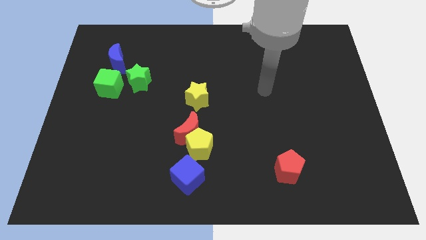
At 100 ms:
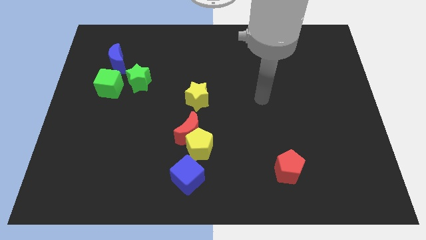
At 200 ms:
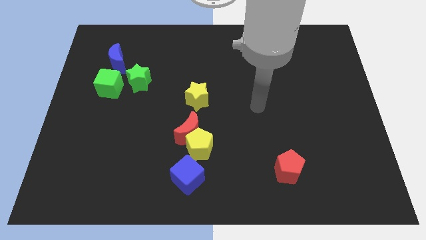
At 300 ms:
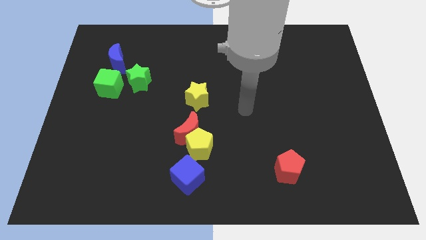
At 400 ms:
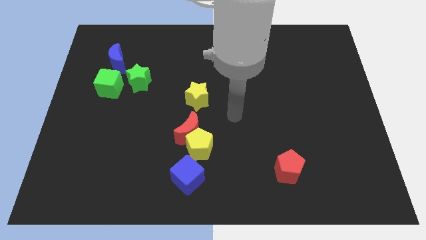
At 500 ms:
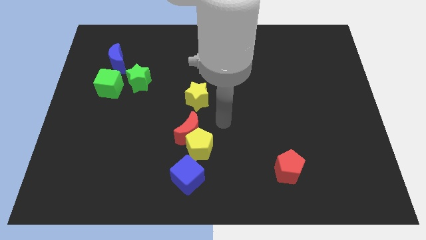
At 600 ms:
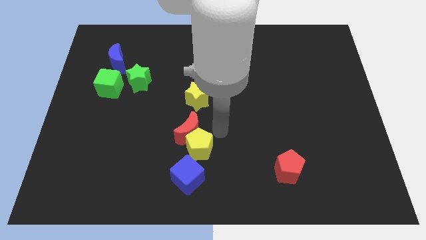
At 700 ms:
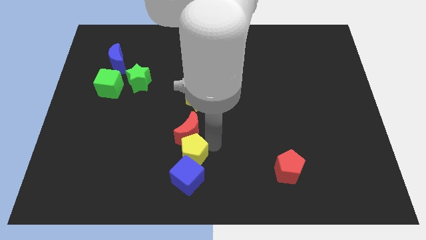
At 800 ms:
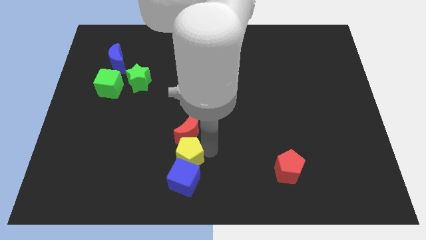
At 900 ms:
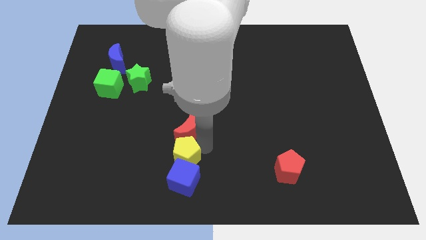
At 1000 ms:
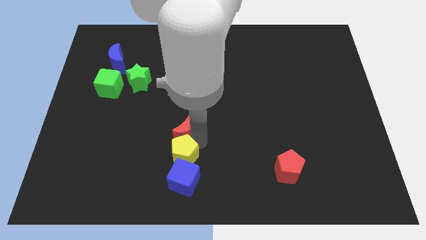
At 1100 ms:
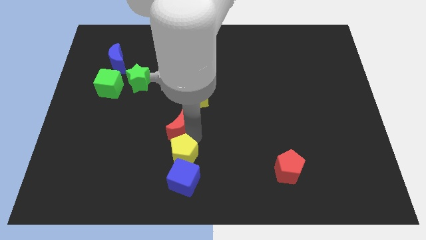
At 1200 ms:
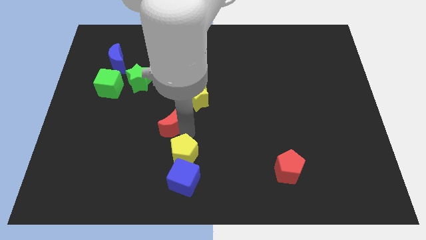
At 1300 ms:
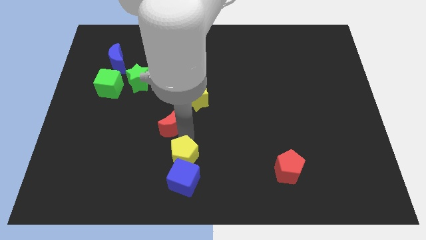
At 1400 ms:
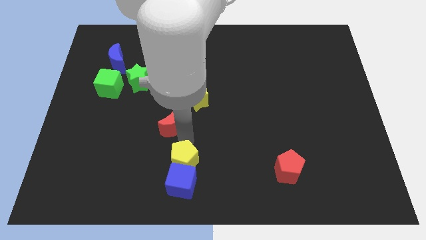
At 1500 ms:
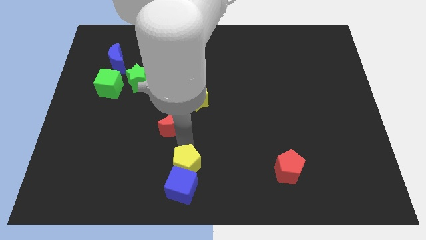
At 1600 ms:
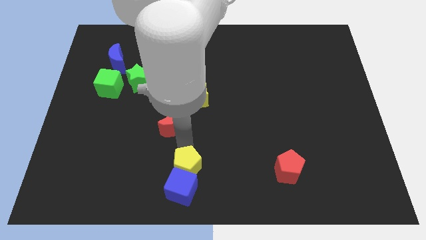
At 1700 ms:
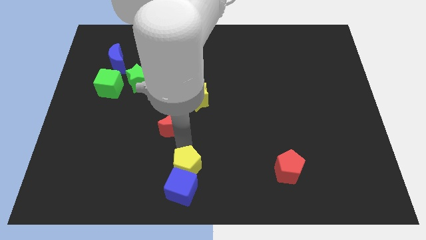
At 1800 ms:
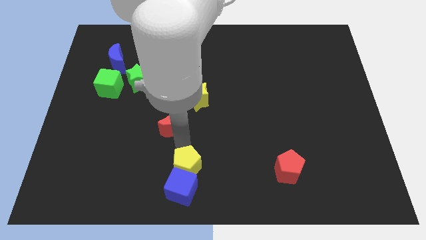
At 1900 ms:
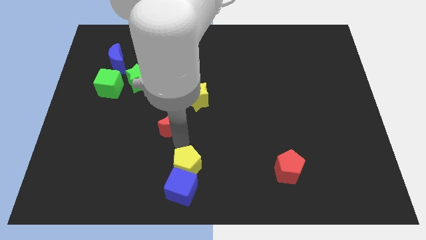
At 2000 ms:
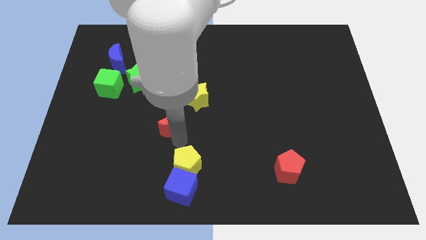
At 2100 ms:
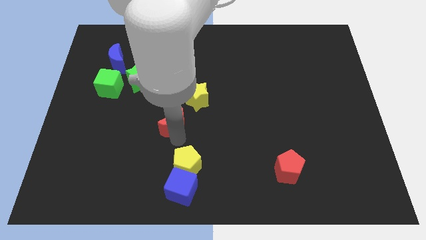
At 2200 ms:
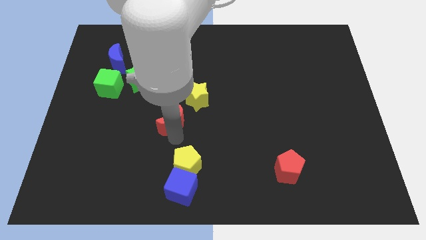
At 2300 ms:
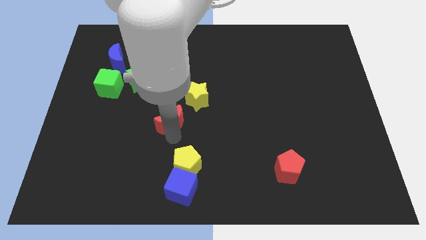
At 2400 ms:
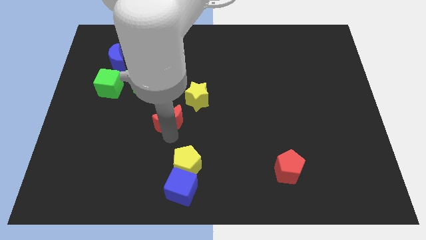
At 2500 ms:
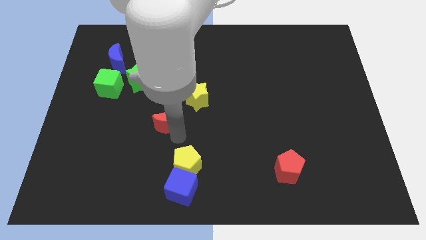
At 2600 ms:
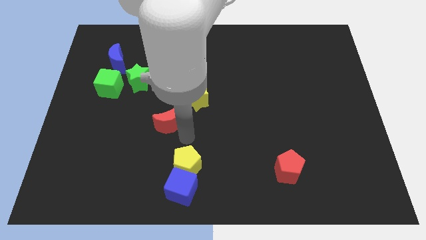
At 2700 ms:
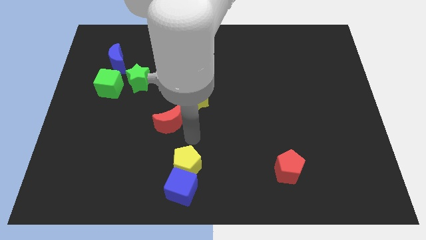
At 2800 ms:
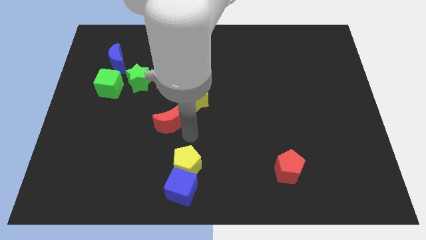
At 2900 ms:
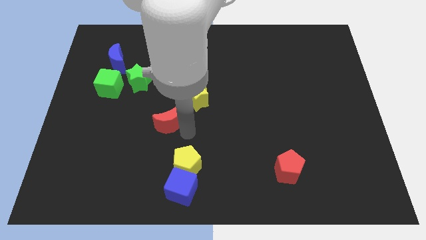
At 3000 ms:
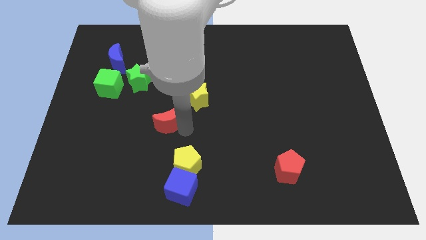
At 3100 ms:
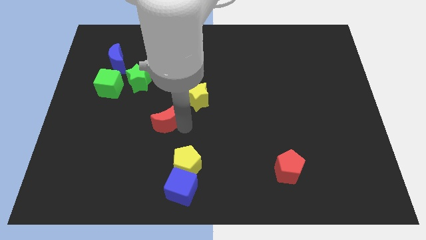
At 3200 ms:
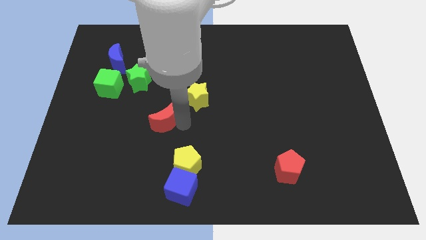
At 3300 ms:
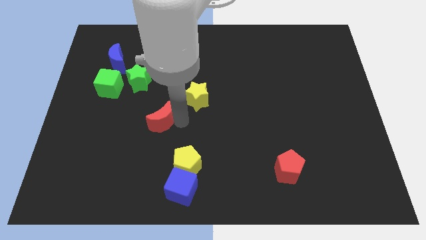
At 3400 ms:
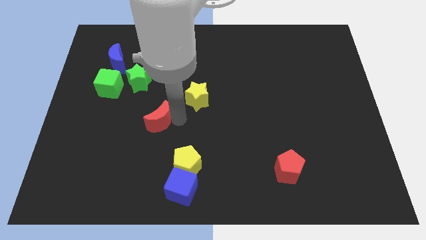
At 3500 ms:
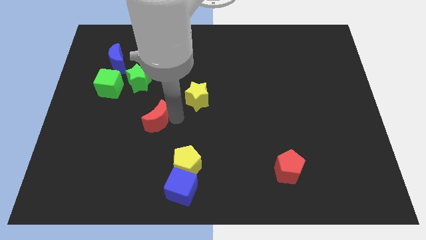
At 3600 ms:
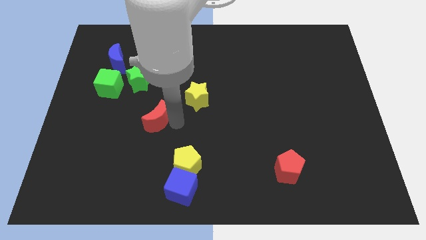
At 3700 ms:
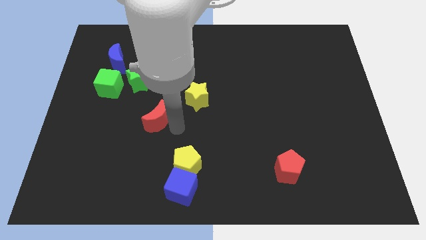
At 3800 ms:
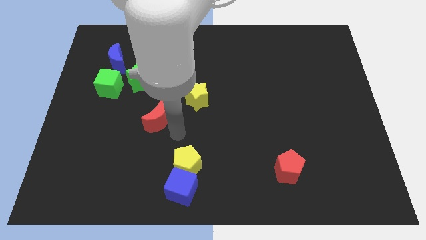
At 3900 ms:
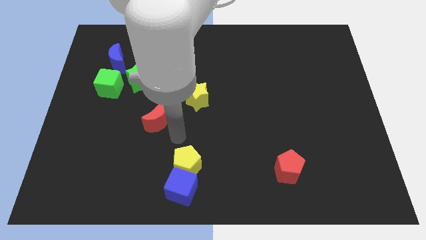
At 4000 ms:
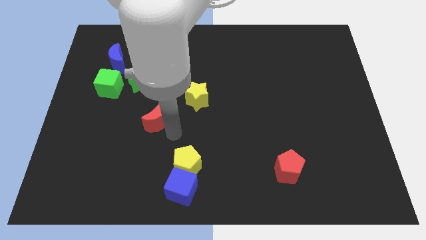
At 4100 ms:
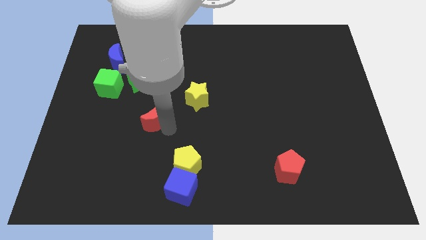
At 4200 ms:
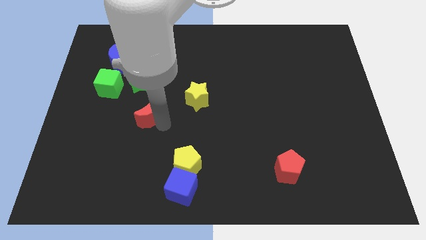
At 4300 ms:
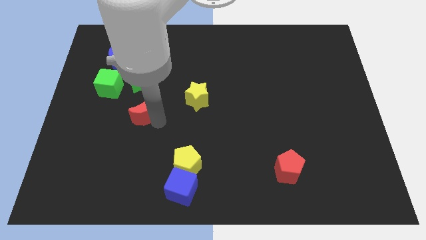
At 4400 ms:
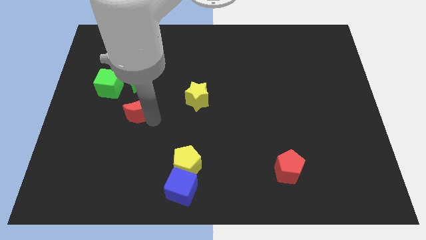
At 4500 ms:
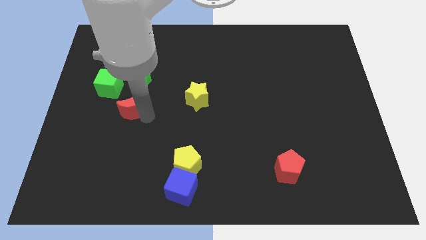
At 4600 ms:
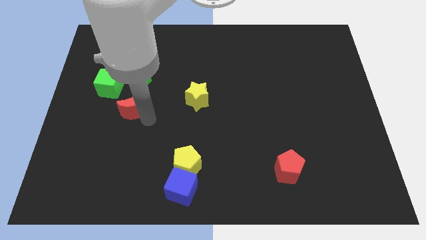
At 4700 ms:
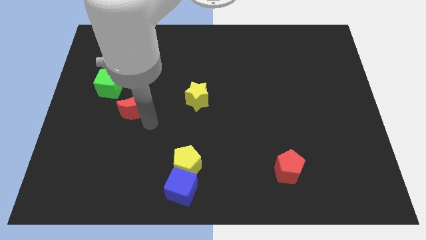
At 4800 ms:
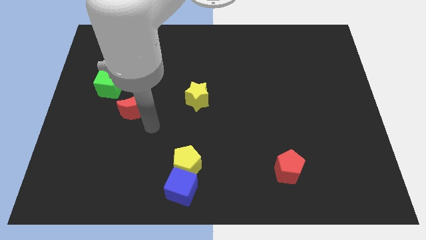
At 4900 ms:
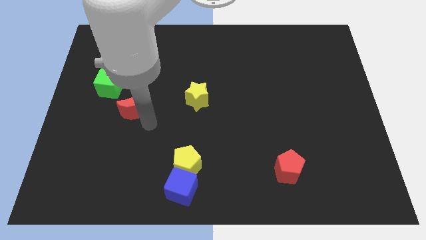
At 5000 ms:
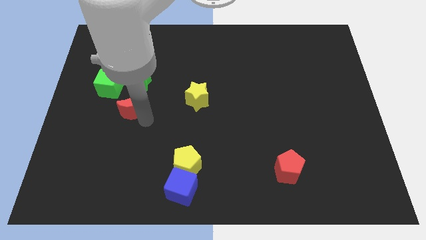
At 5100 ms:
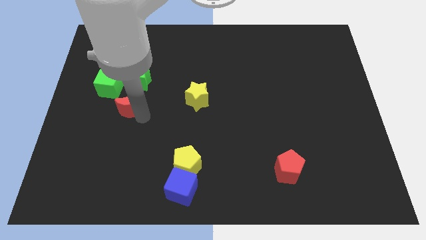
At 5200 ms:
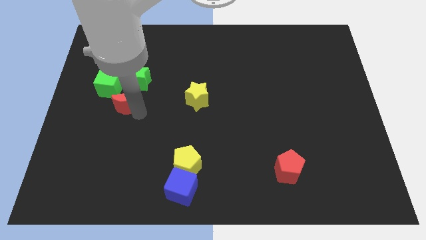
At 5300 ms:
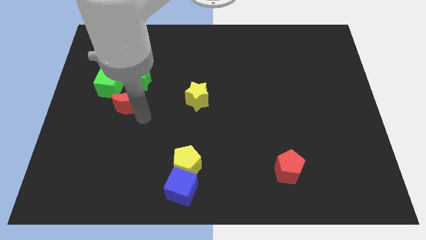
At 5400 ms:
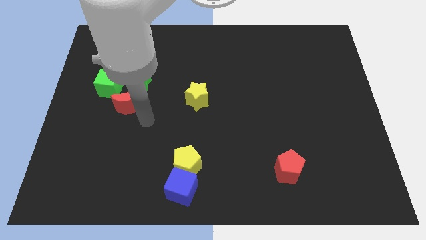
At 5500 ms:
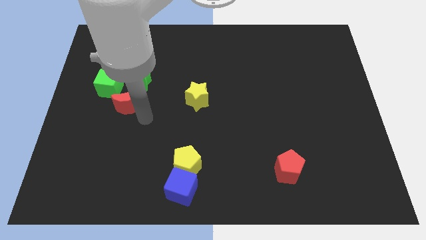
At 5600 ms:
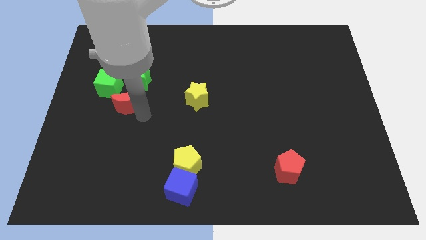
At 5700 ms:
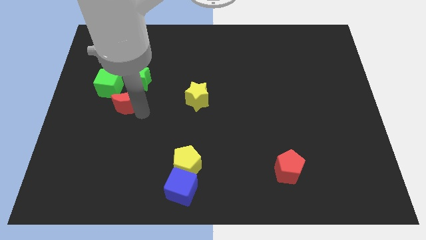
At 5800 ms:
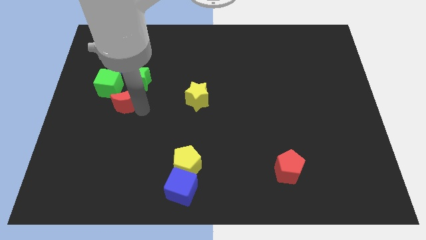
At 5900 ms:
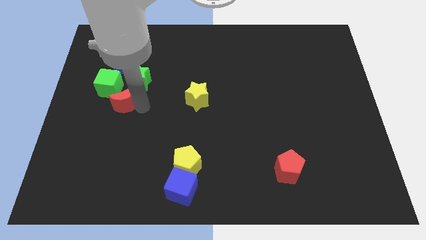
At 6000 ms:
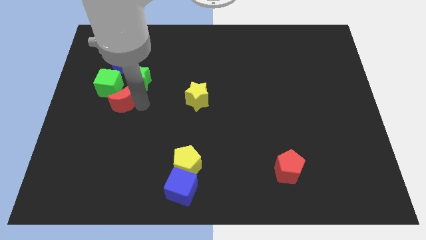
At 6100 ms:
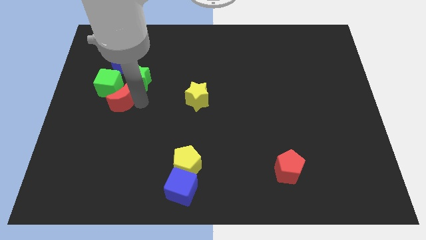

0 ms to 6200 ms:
push the red moon towards the green cube

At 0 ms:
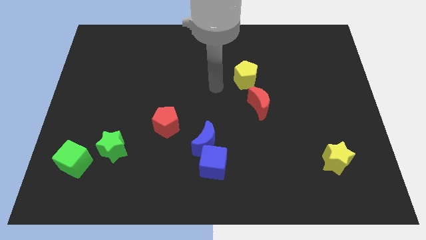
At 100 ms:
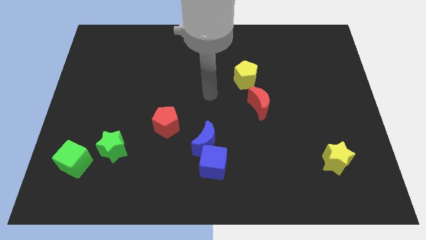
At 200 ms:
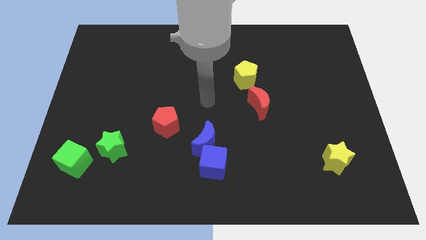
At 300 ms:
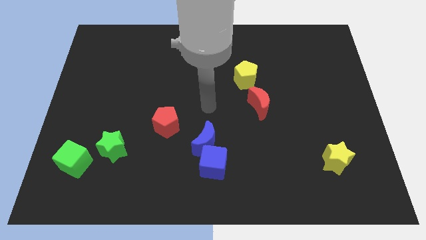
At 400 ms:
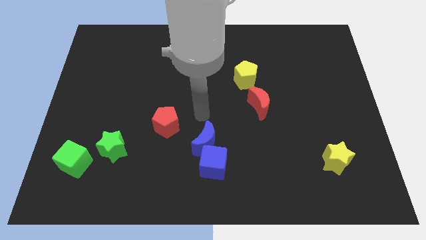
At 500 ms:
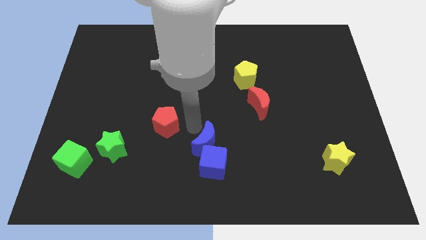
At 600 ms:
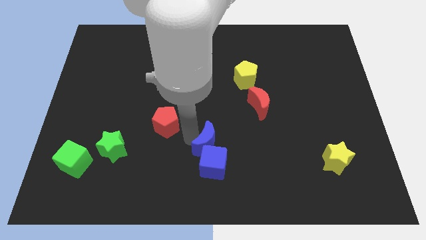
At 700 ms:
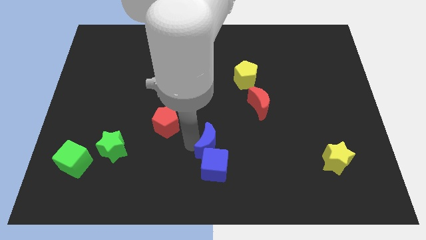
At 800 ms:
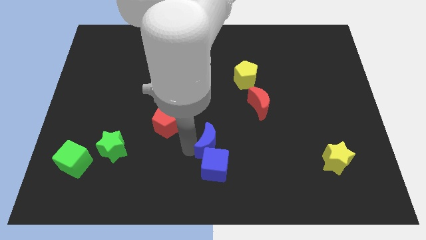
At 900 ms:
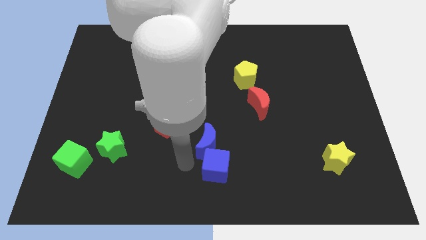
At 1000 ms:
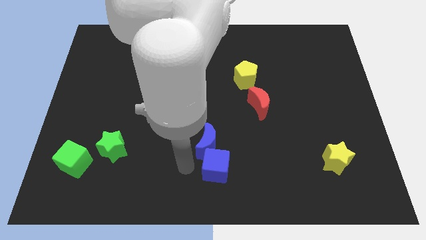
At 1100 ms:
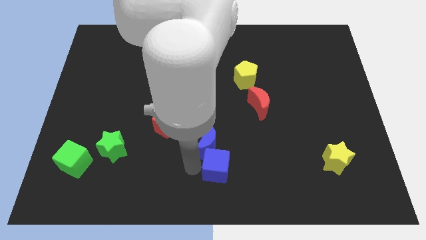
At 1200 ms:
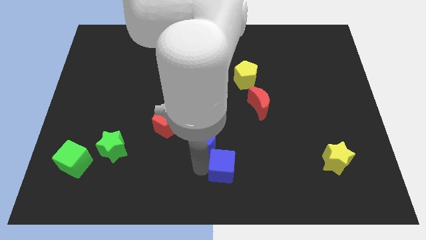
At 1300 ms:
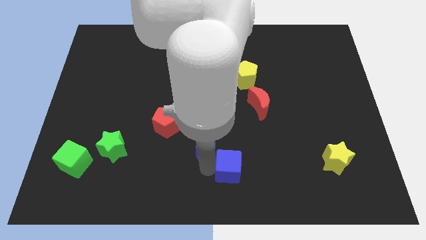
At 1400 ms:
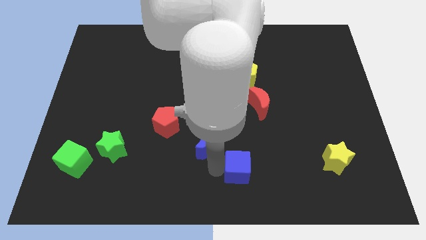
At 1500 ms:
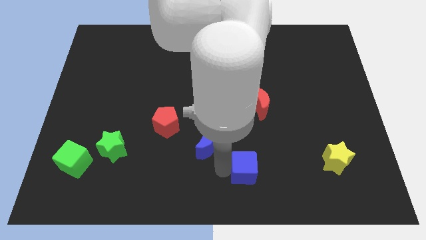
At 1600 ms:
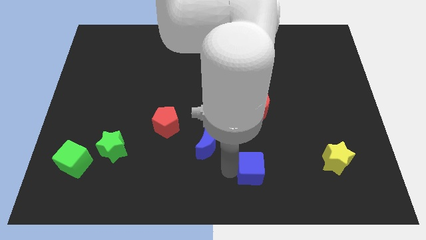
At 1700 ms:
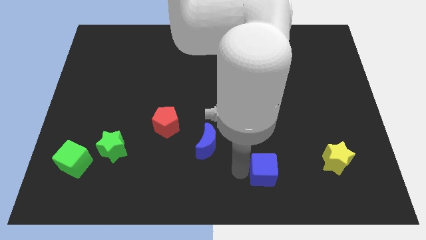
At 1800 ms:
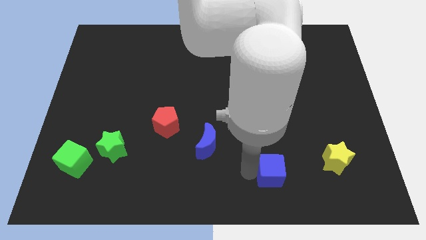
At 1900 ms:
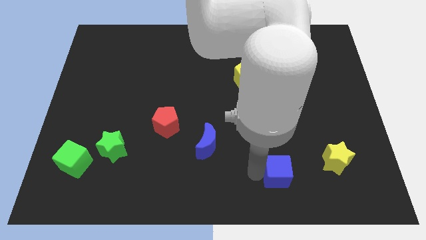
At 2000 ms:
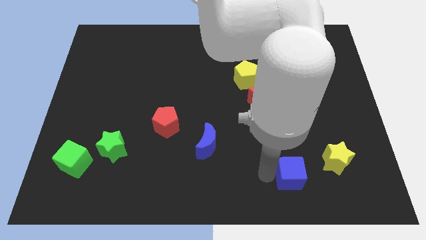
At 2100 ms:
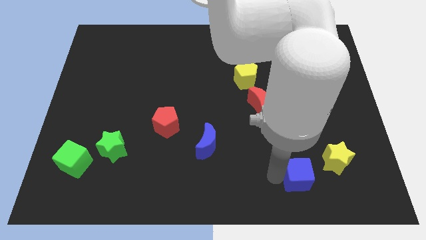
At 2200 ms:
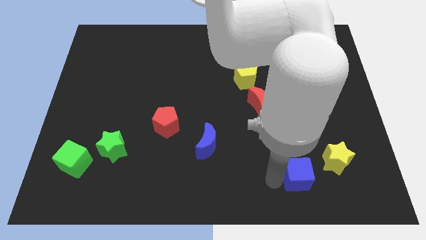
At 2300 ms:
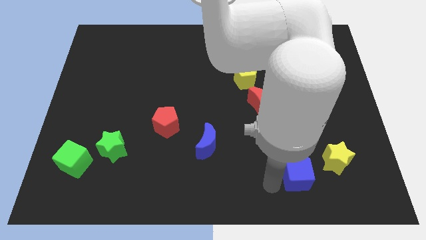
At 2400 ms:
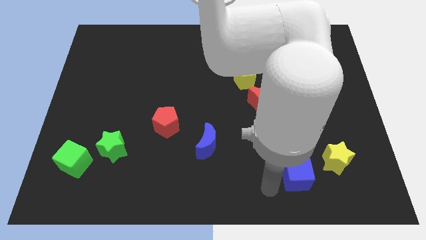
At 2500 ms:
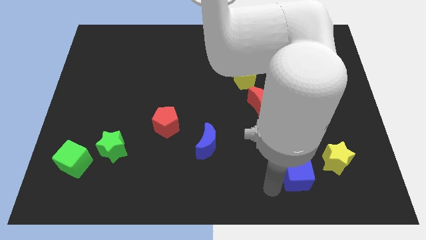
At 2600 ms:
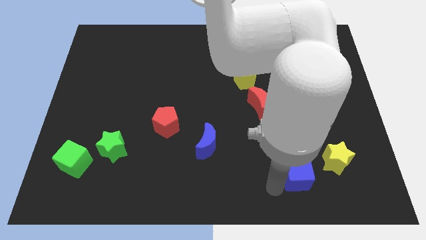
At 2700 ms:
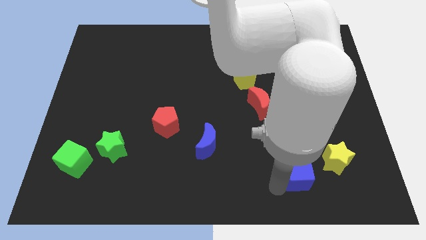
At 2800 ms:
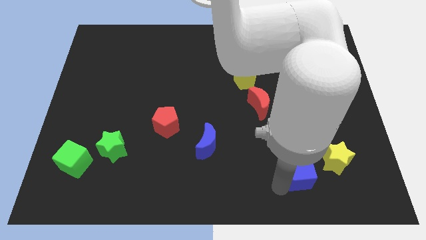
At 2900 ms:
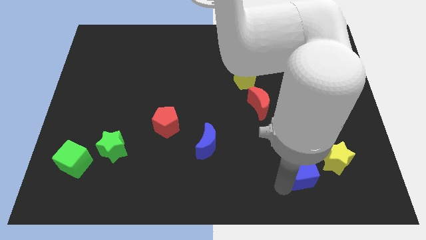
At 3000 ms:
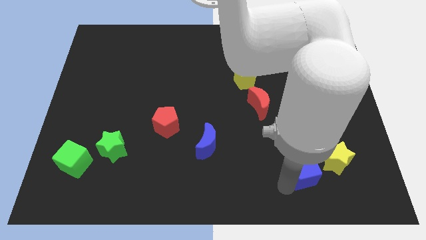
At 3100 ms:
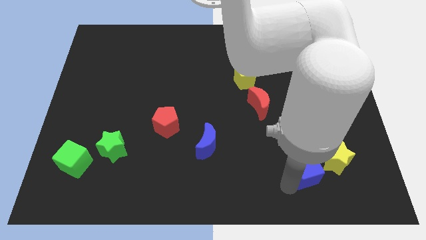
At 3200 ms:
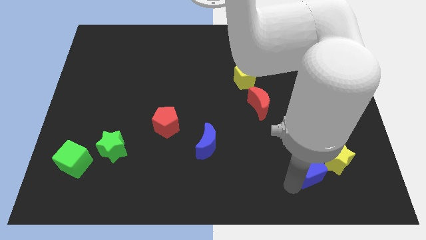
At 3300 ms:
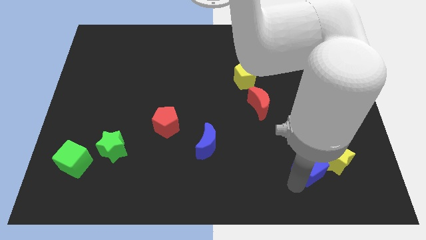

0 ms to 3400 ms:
put the blue cube next to the yellow star
